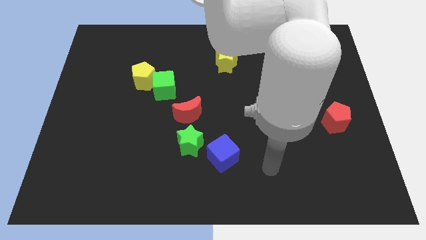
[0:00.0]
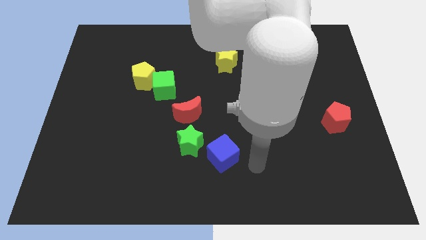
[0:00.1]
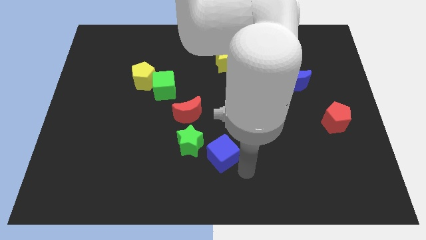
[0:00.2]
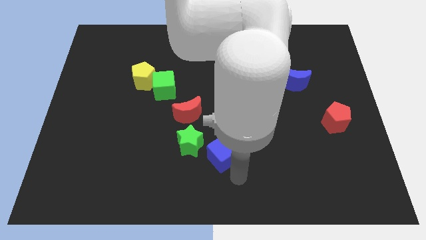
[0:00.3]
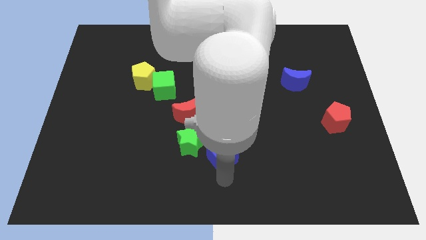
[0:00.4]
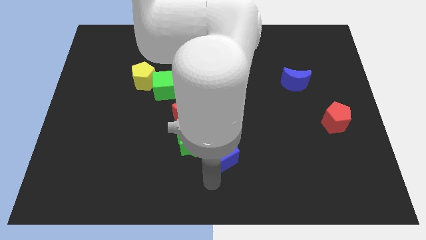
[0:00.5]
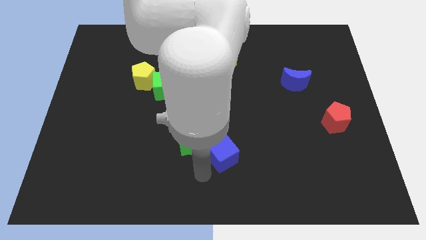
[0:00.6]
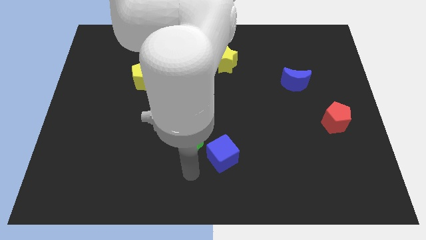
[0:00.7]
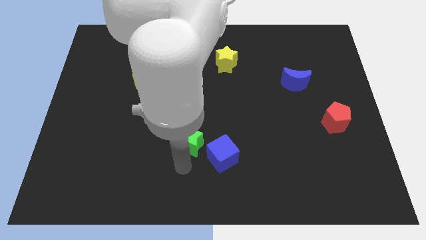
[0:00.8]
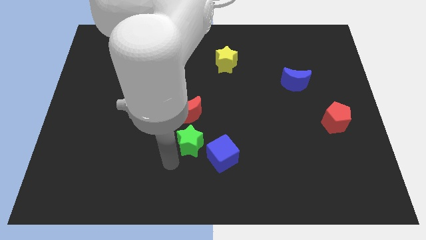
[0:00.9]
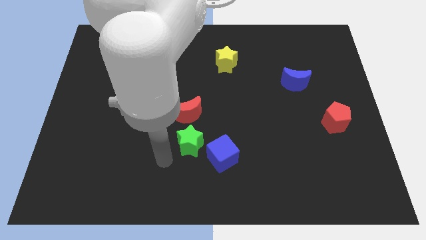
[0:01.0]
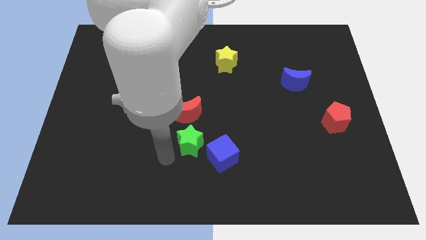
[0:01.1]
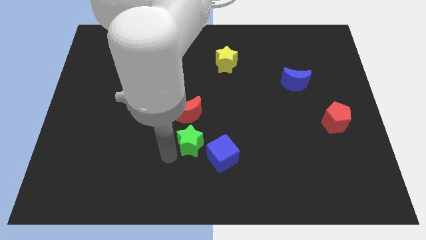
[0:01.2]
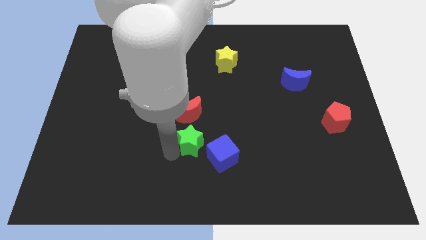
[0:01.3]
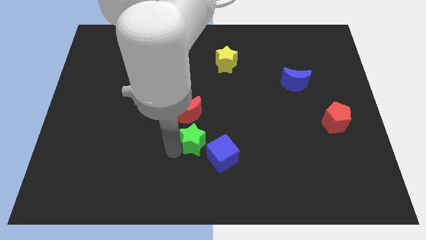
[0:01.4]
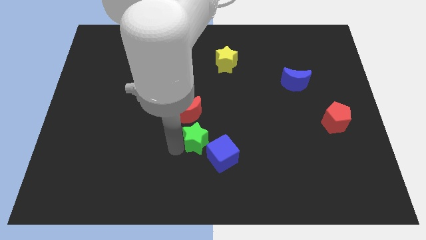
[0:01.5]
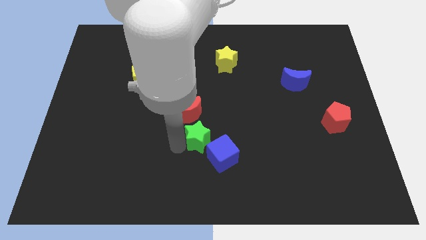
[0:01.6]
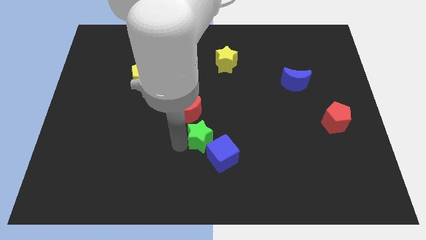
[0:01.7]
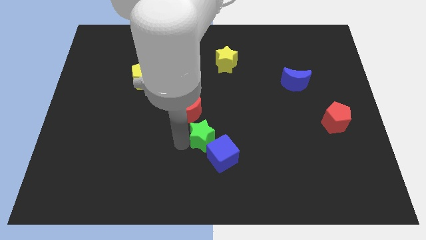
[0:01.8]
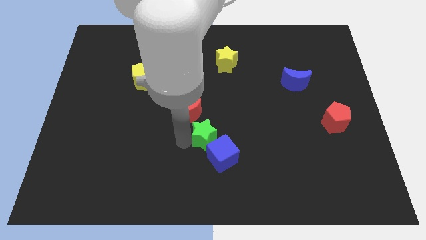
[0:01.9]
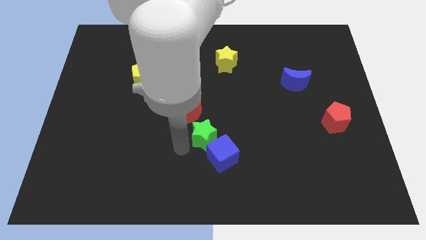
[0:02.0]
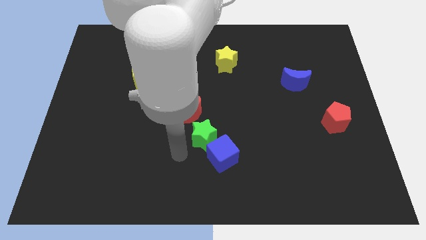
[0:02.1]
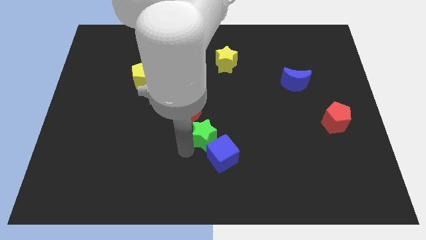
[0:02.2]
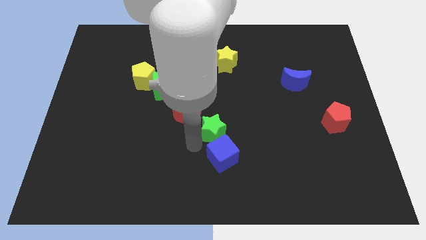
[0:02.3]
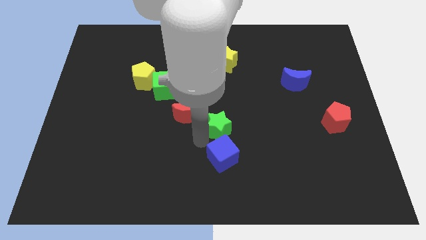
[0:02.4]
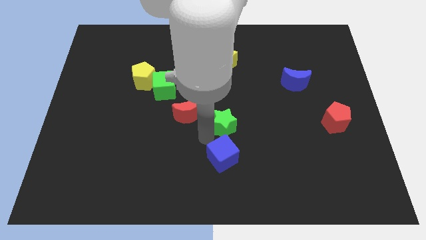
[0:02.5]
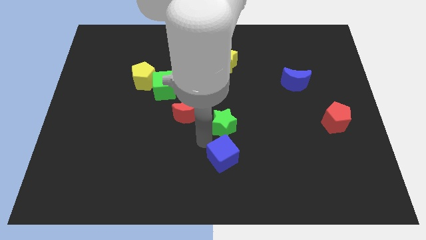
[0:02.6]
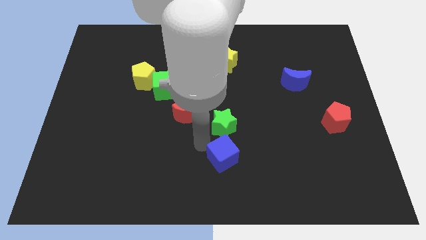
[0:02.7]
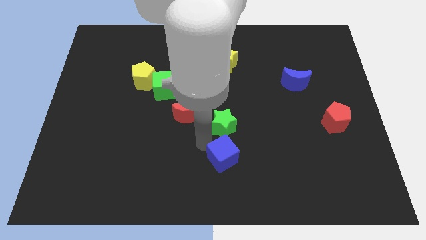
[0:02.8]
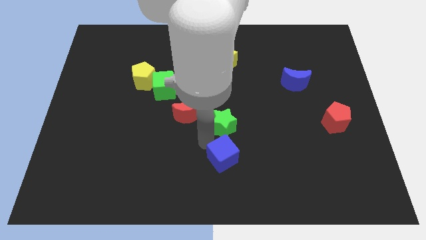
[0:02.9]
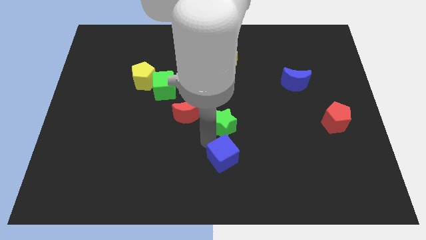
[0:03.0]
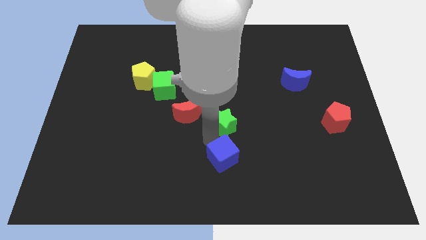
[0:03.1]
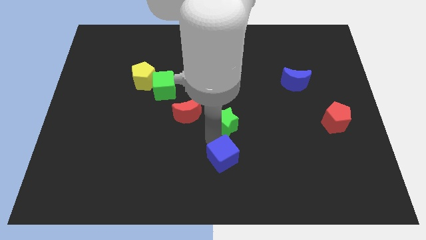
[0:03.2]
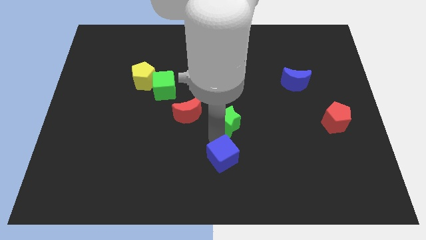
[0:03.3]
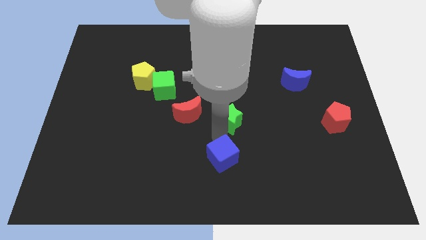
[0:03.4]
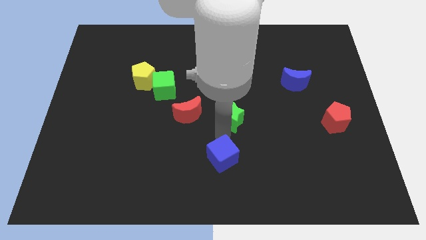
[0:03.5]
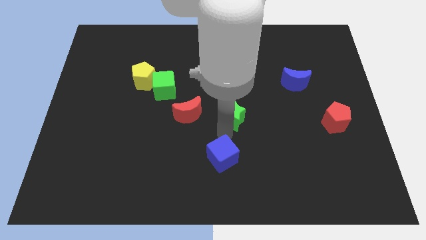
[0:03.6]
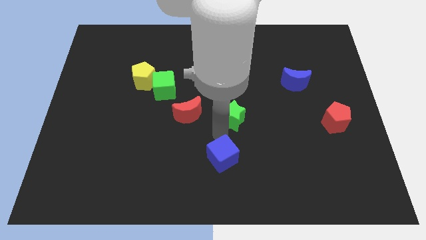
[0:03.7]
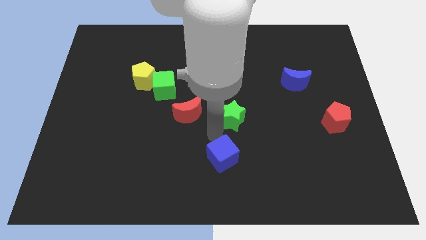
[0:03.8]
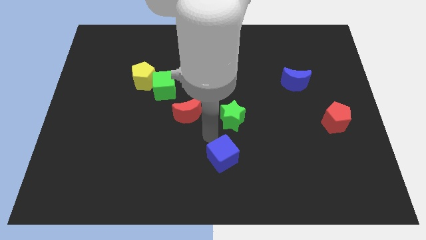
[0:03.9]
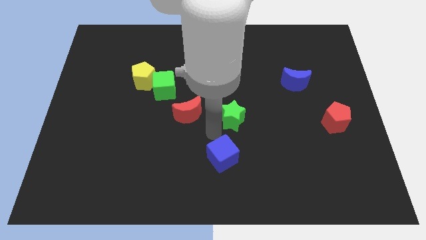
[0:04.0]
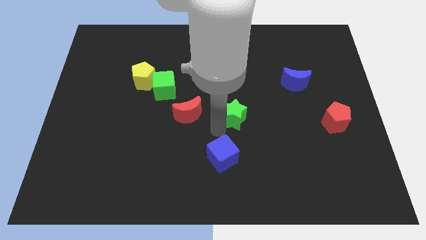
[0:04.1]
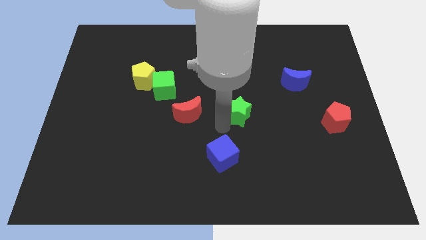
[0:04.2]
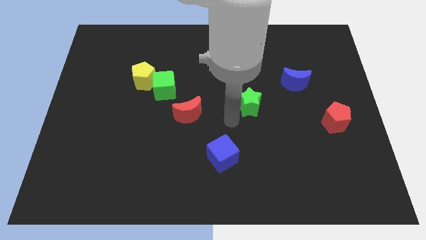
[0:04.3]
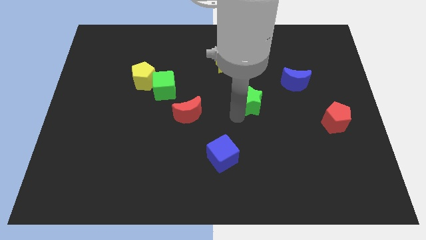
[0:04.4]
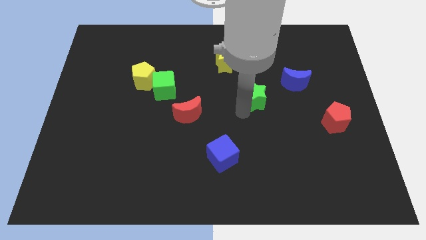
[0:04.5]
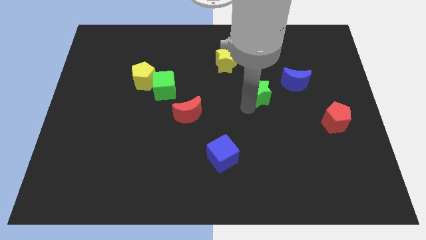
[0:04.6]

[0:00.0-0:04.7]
slide the green star diagonally up and right

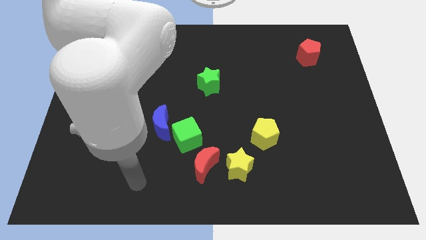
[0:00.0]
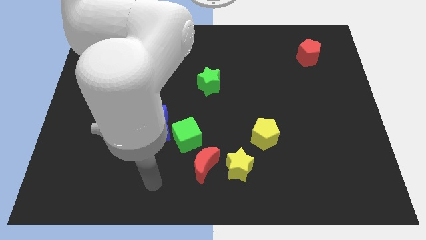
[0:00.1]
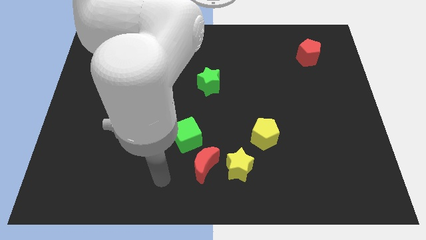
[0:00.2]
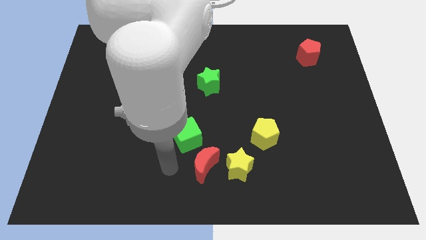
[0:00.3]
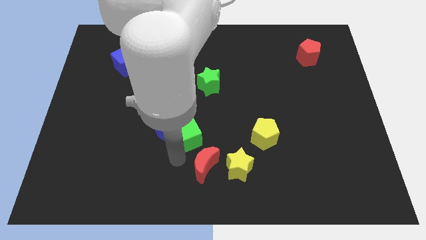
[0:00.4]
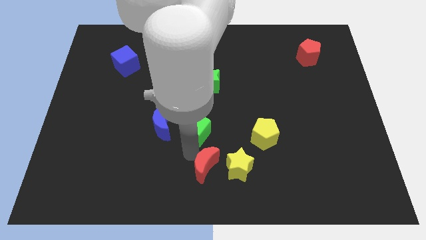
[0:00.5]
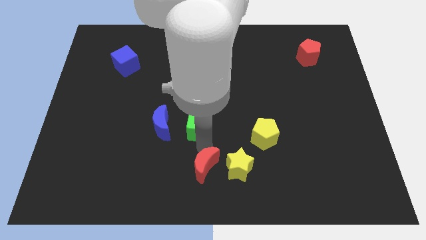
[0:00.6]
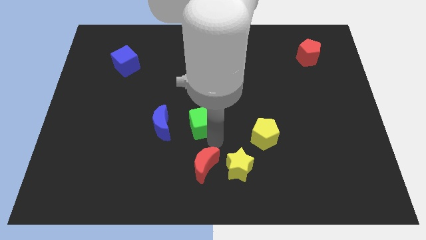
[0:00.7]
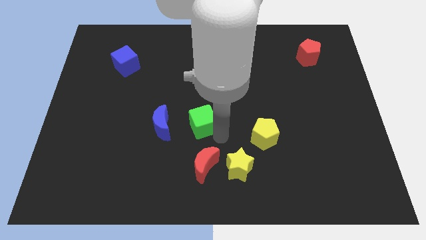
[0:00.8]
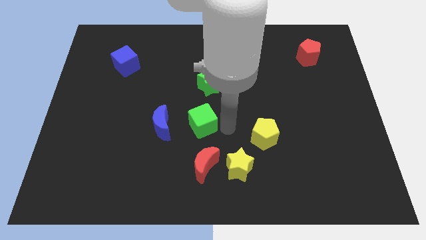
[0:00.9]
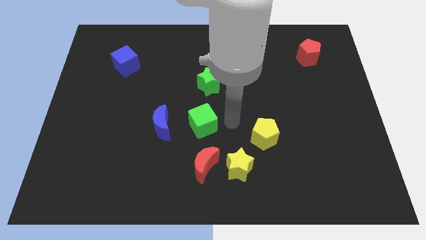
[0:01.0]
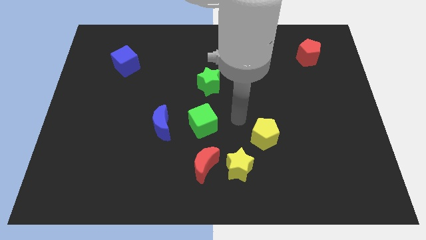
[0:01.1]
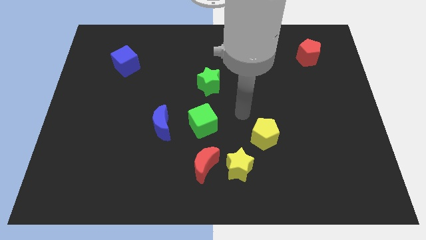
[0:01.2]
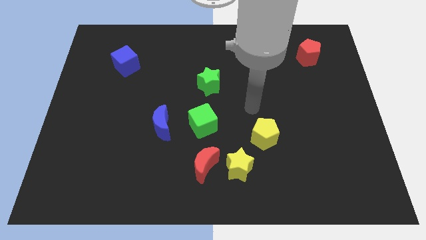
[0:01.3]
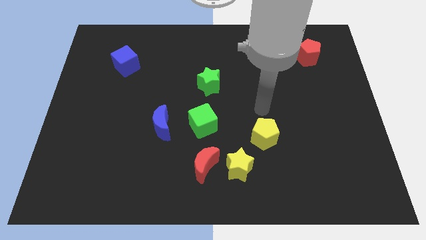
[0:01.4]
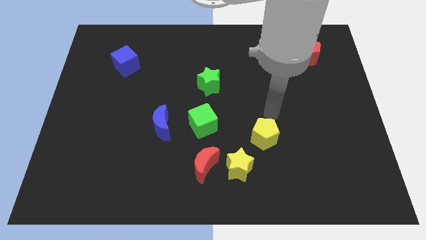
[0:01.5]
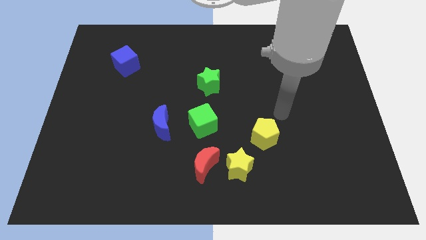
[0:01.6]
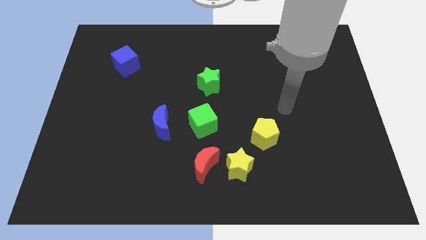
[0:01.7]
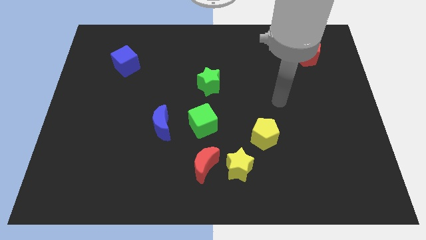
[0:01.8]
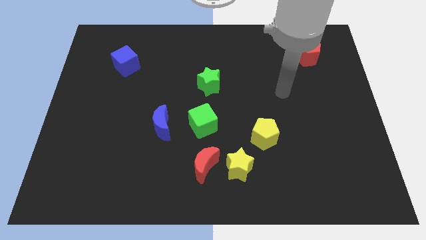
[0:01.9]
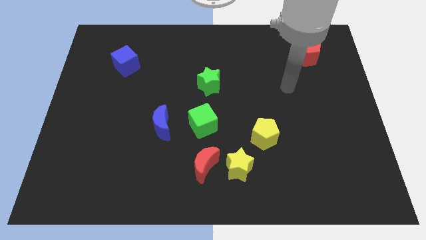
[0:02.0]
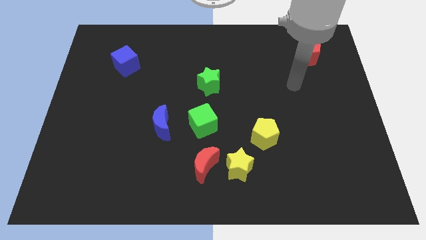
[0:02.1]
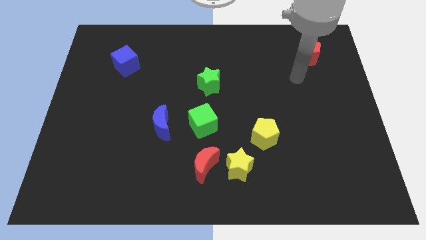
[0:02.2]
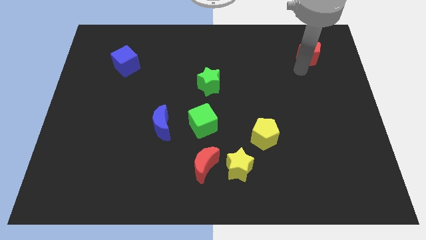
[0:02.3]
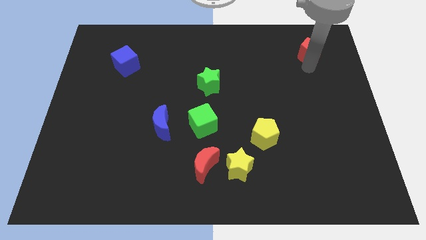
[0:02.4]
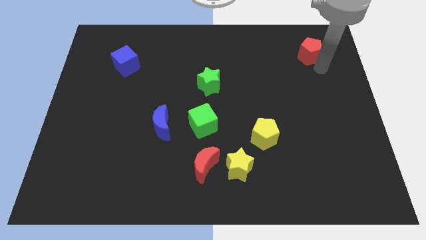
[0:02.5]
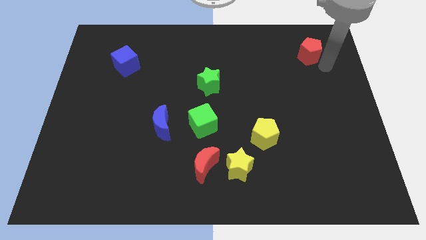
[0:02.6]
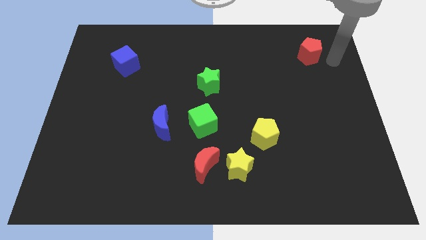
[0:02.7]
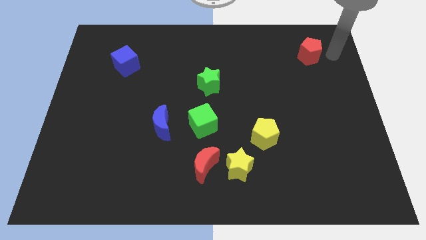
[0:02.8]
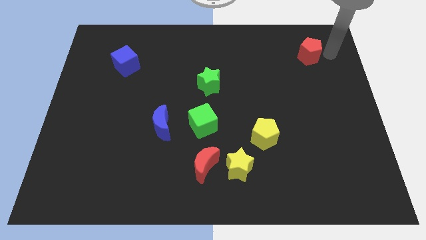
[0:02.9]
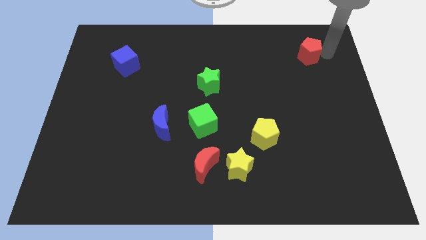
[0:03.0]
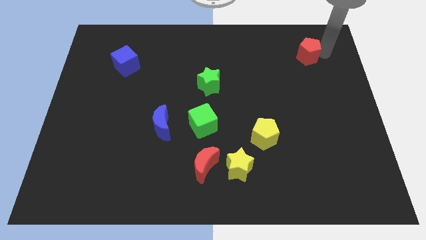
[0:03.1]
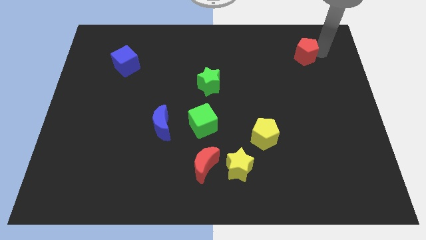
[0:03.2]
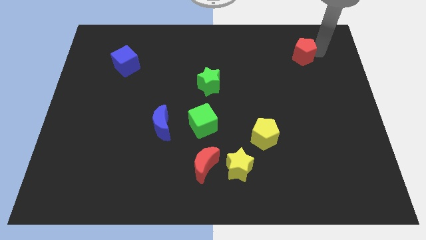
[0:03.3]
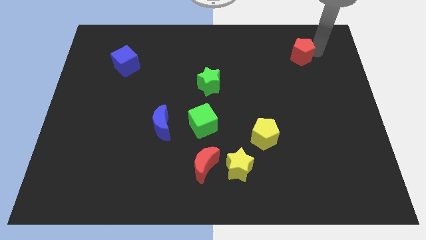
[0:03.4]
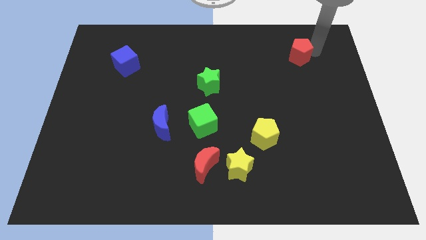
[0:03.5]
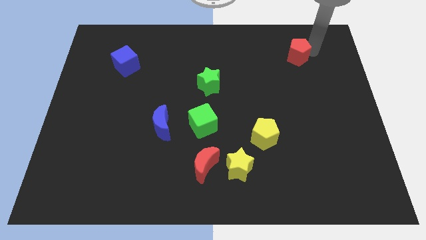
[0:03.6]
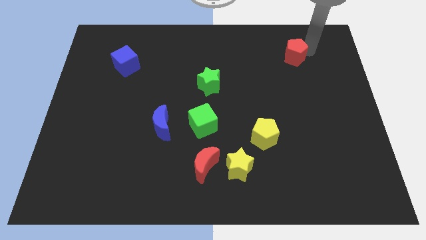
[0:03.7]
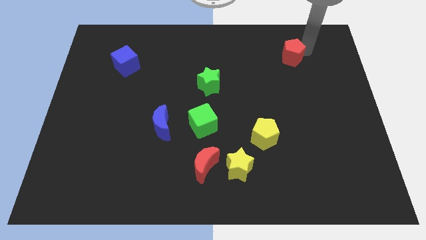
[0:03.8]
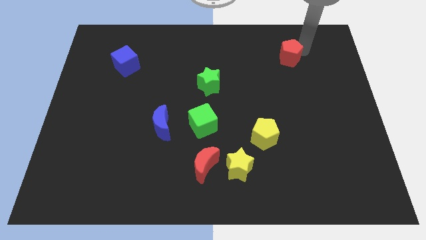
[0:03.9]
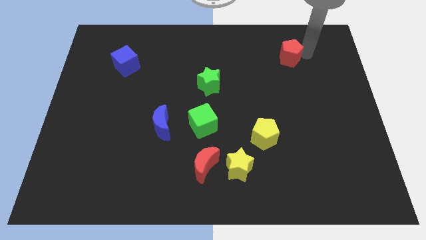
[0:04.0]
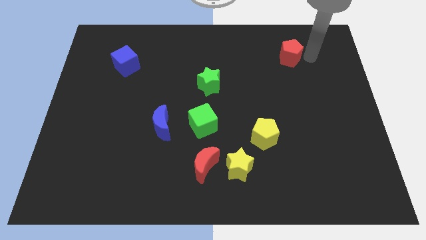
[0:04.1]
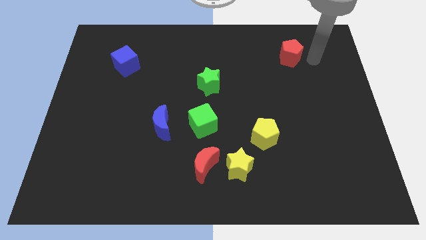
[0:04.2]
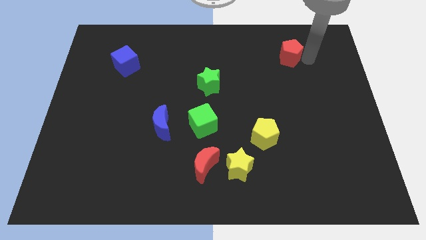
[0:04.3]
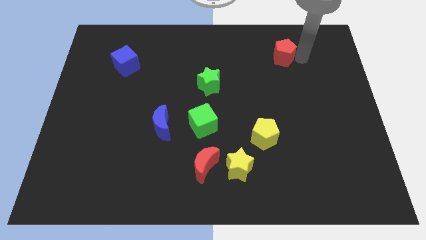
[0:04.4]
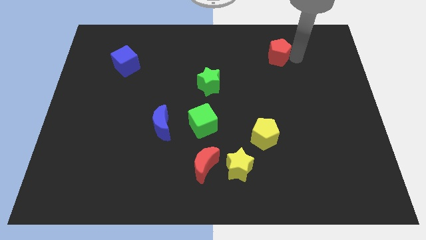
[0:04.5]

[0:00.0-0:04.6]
move the red pentagon left a bit
